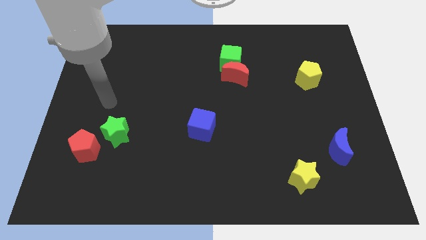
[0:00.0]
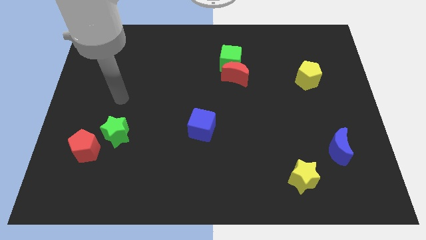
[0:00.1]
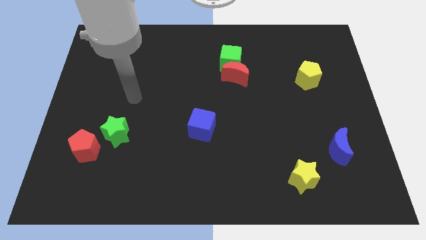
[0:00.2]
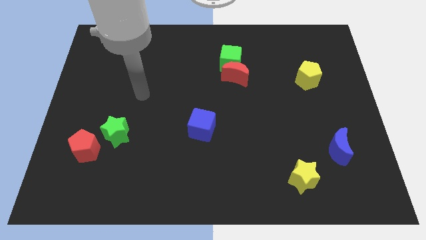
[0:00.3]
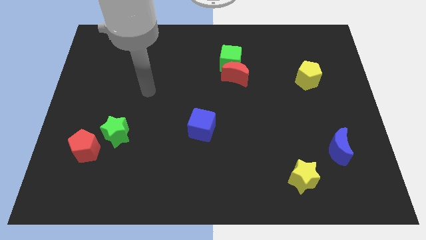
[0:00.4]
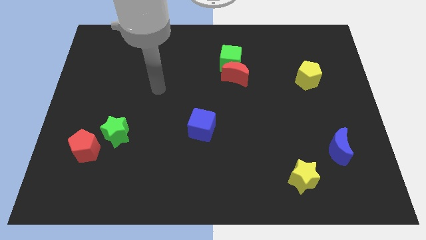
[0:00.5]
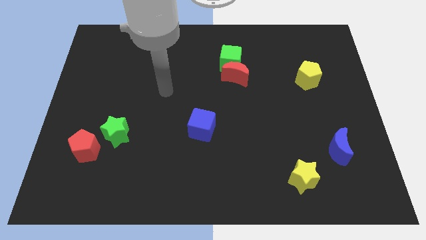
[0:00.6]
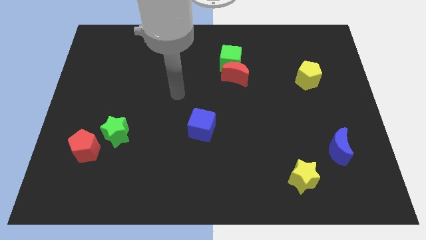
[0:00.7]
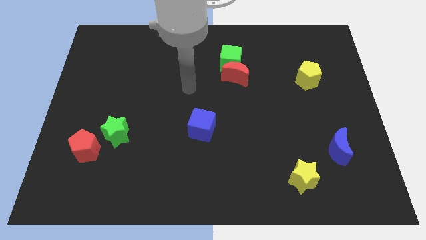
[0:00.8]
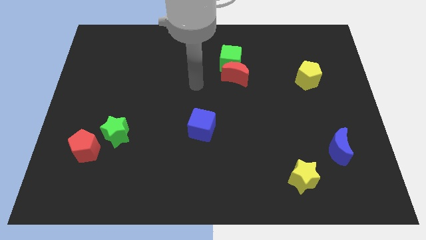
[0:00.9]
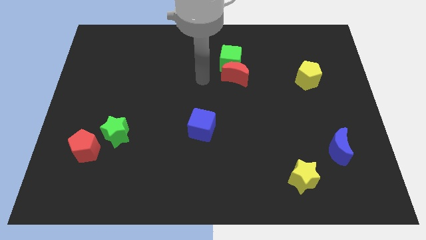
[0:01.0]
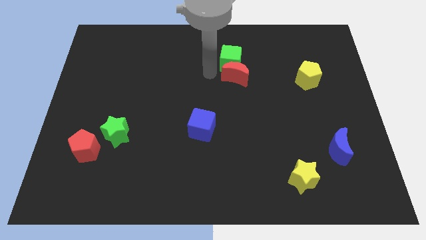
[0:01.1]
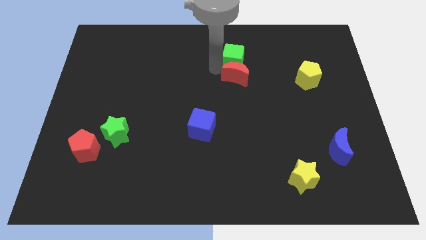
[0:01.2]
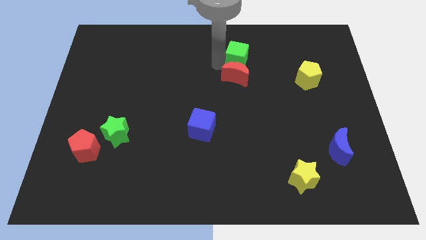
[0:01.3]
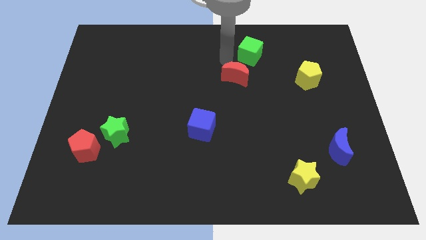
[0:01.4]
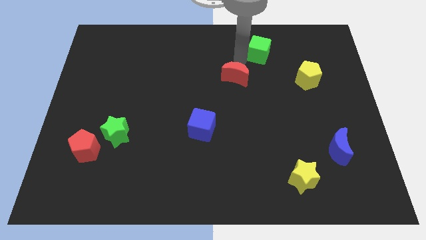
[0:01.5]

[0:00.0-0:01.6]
move the red moon away from the green cube

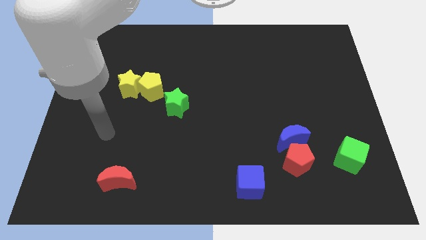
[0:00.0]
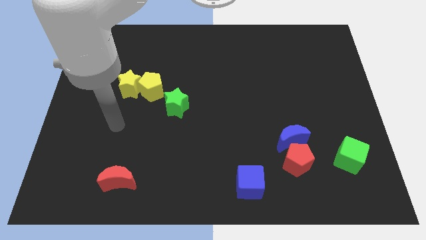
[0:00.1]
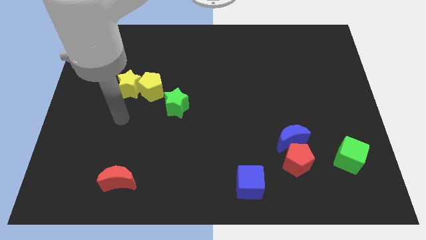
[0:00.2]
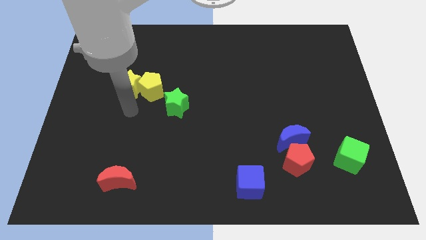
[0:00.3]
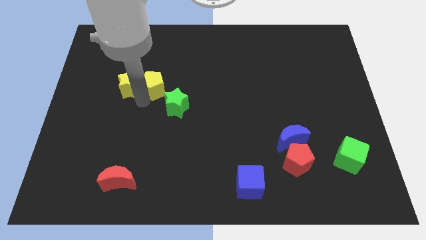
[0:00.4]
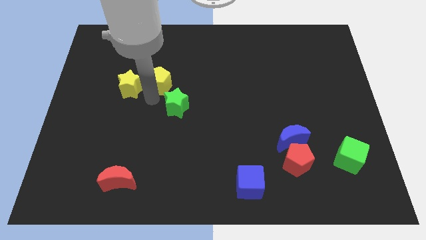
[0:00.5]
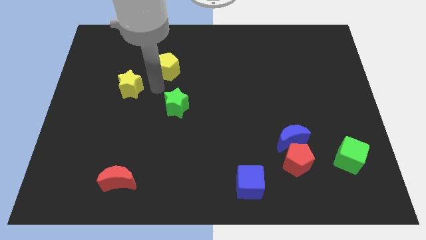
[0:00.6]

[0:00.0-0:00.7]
separate the yellow star from the yellow pentagon

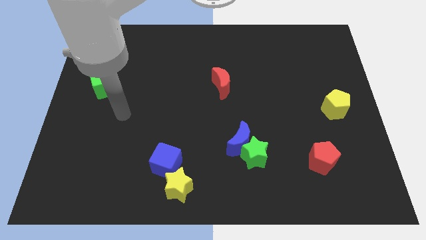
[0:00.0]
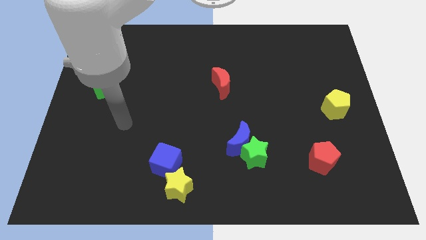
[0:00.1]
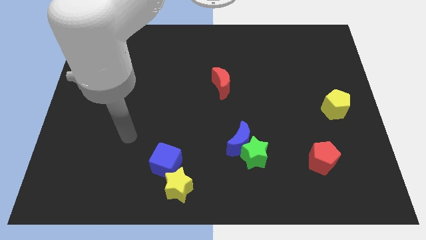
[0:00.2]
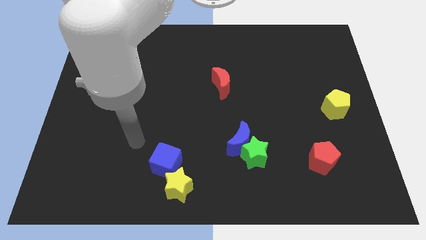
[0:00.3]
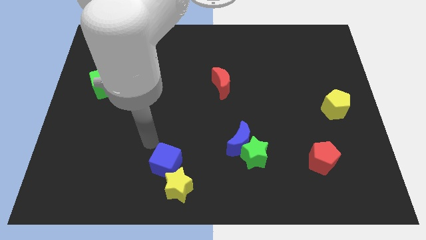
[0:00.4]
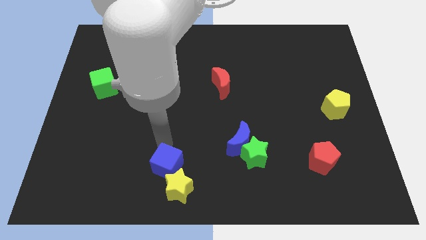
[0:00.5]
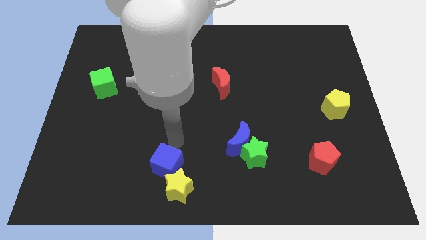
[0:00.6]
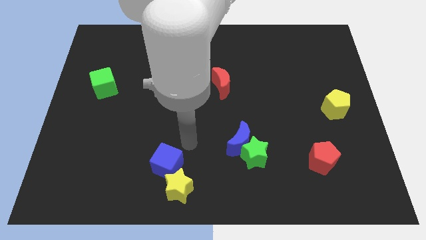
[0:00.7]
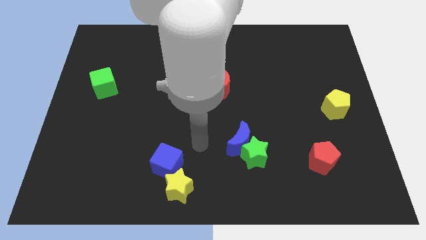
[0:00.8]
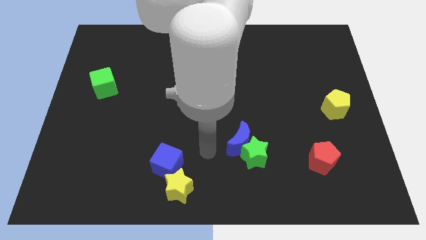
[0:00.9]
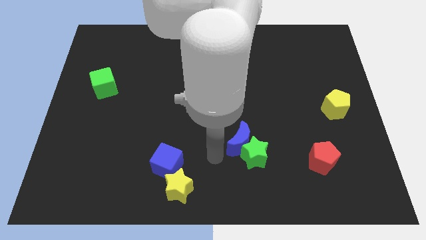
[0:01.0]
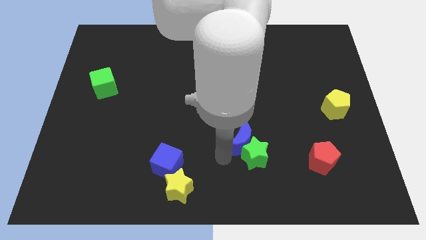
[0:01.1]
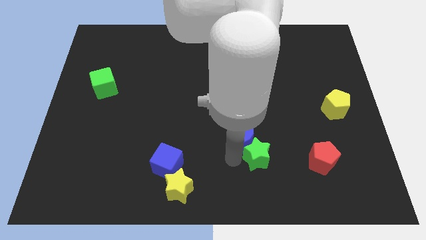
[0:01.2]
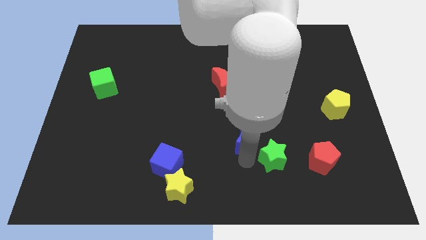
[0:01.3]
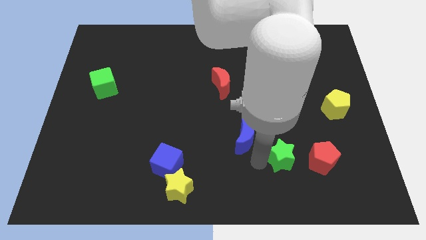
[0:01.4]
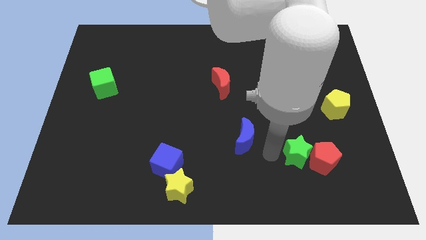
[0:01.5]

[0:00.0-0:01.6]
move the blue moon away from the green star

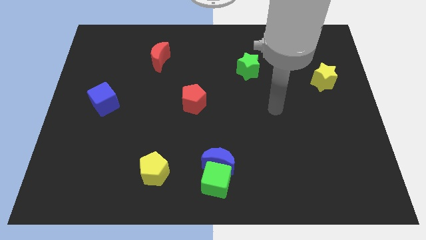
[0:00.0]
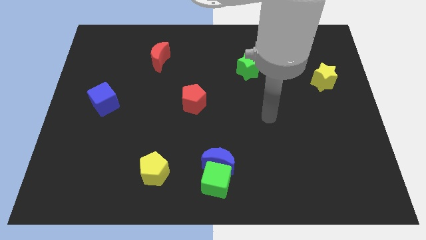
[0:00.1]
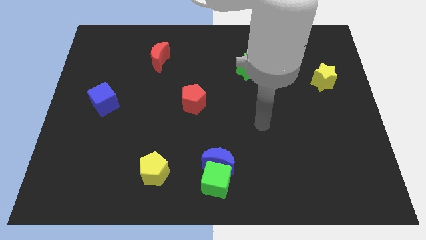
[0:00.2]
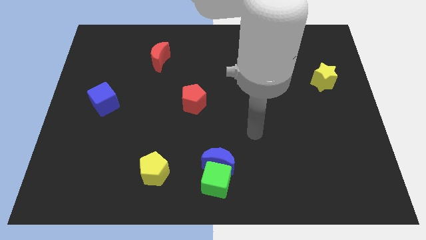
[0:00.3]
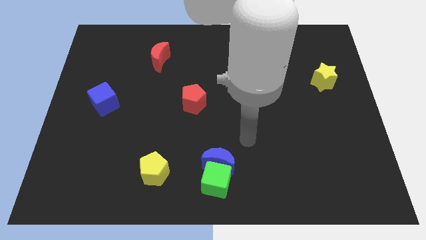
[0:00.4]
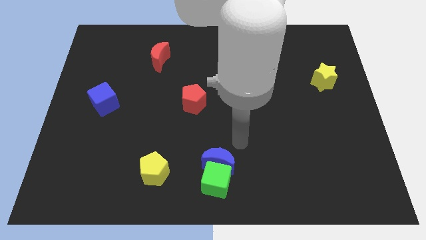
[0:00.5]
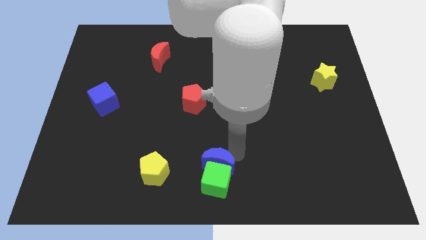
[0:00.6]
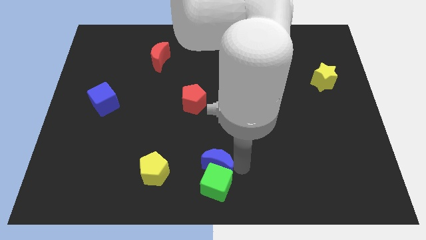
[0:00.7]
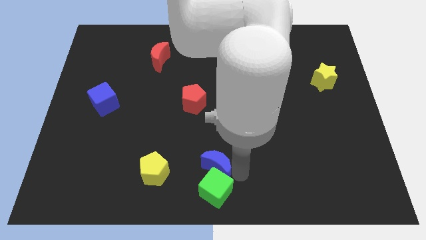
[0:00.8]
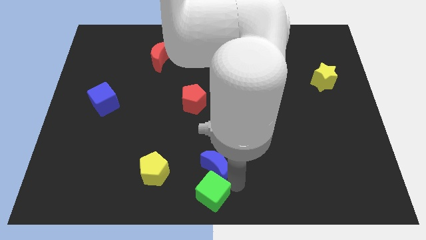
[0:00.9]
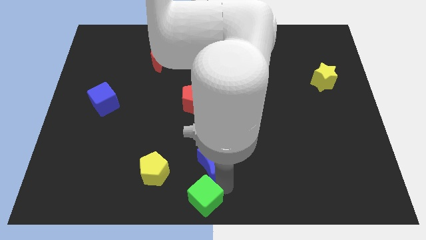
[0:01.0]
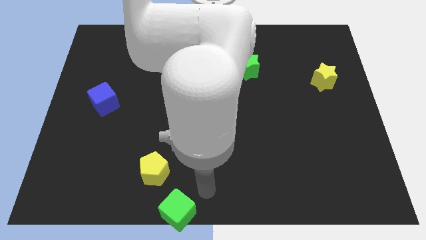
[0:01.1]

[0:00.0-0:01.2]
pull the blue moon apart from the green cube

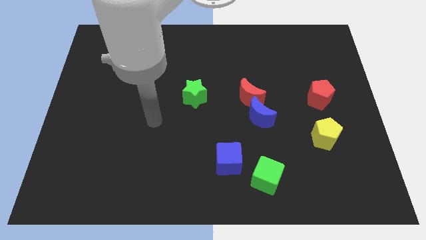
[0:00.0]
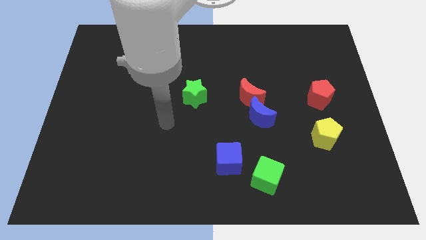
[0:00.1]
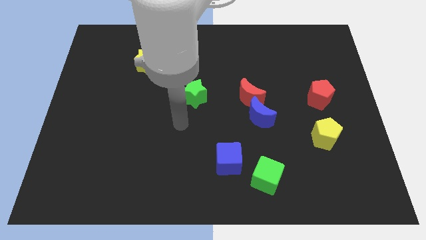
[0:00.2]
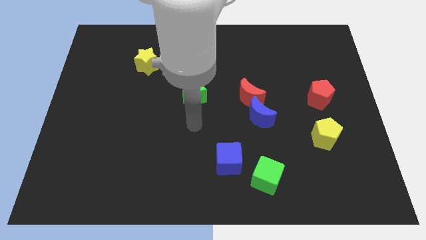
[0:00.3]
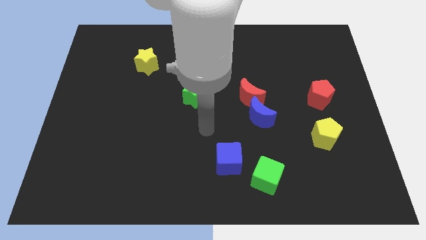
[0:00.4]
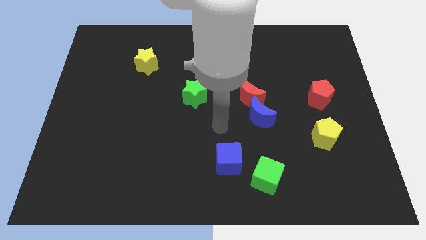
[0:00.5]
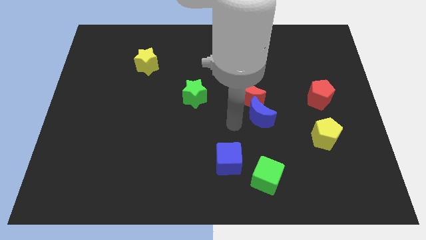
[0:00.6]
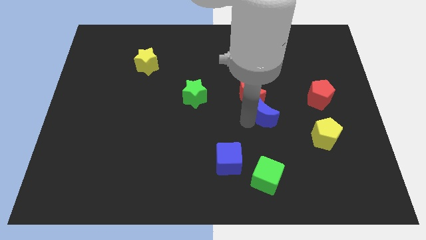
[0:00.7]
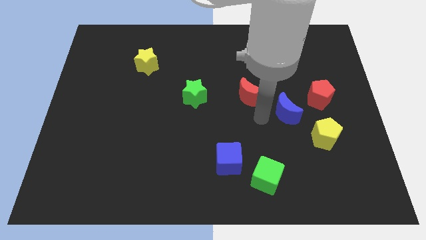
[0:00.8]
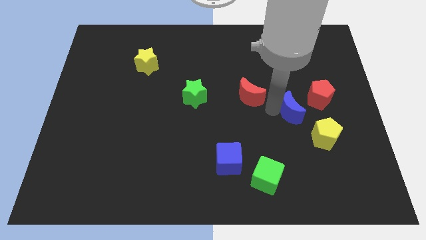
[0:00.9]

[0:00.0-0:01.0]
move the red moon away from the blue moon

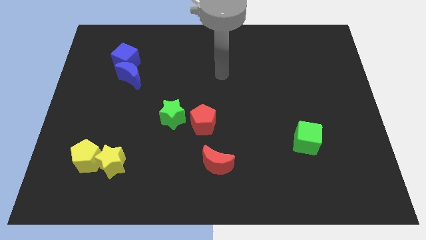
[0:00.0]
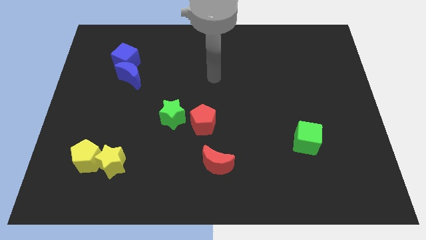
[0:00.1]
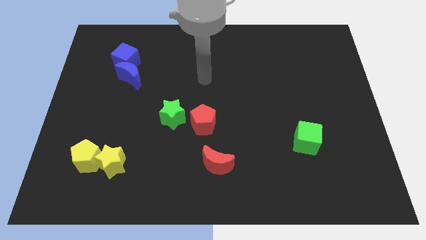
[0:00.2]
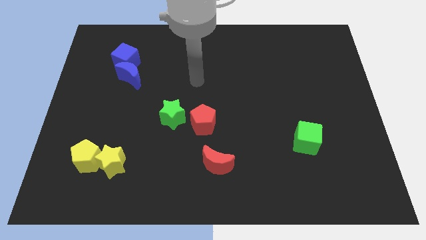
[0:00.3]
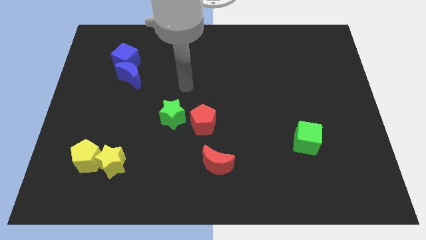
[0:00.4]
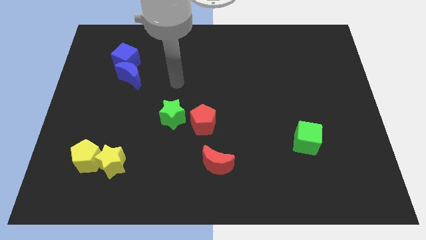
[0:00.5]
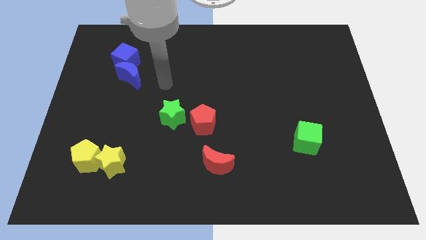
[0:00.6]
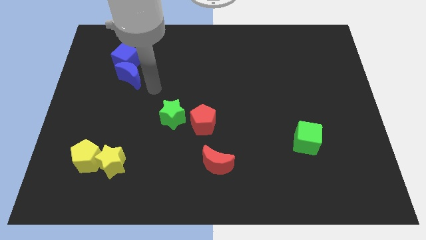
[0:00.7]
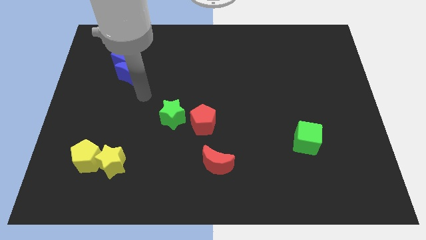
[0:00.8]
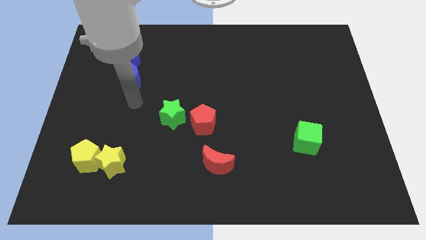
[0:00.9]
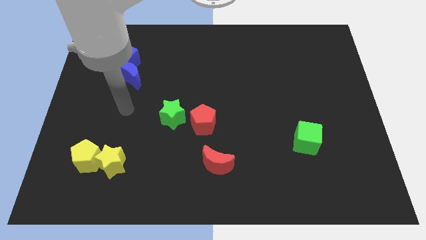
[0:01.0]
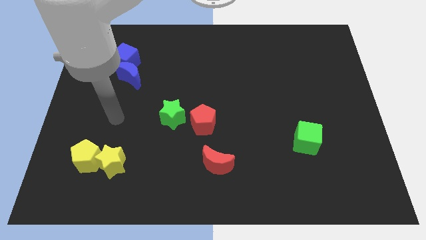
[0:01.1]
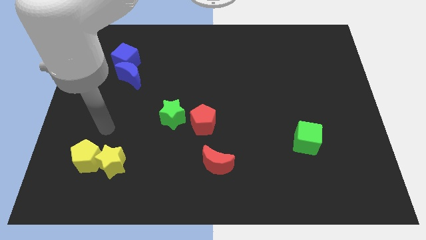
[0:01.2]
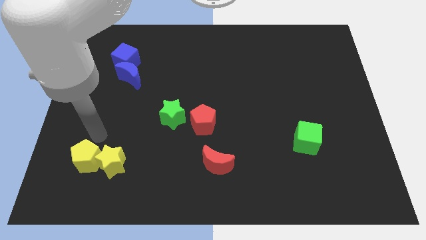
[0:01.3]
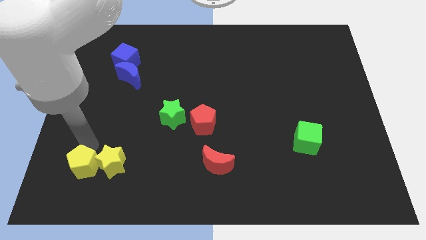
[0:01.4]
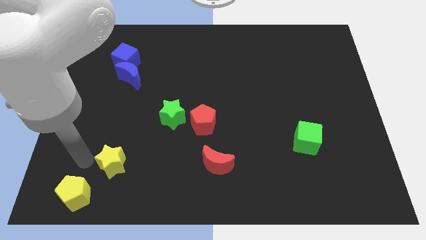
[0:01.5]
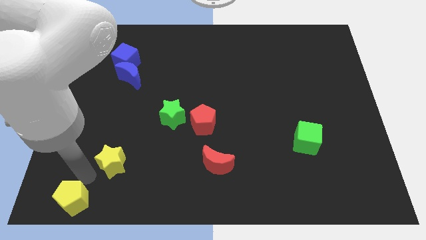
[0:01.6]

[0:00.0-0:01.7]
move the yellow star away from the yellow pentagon

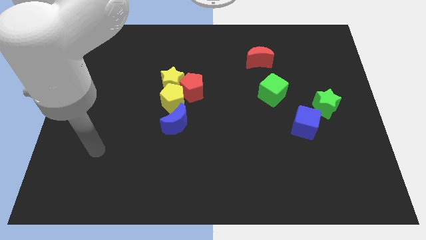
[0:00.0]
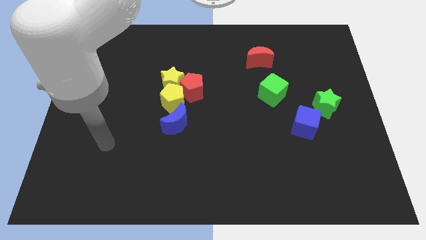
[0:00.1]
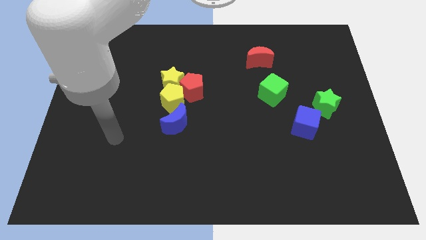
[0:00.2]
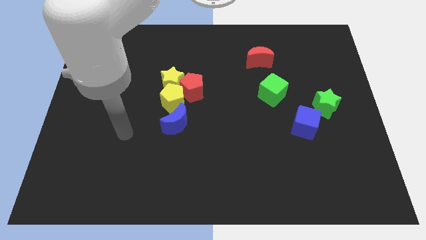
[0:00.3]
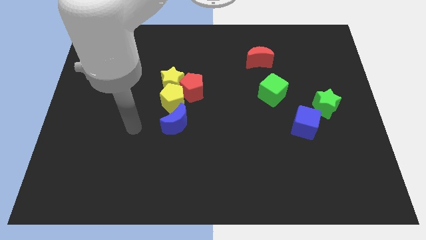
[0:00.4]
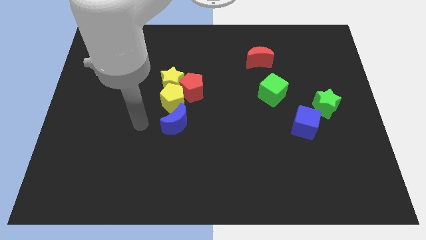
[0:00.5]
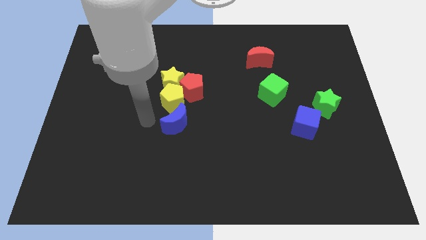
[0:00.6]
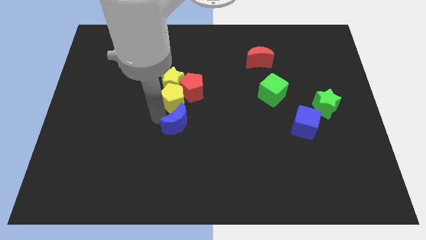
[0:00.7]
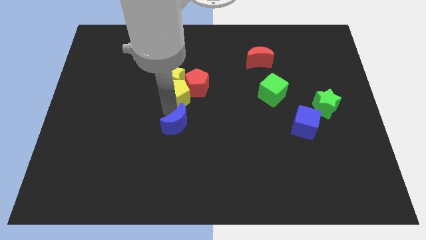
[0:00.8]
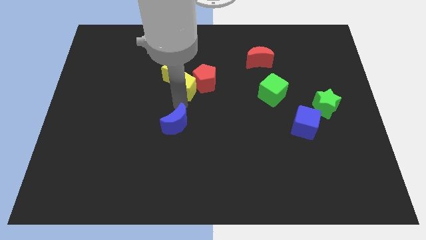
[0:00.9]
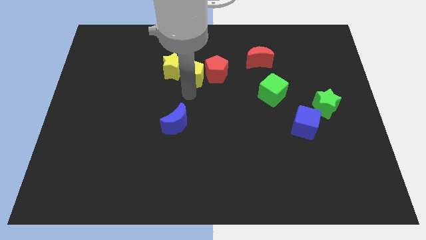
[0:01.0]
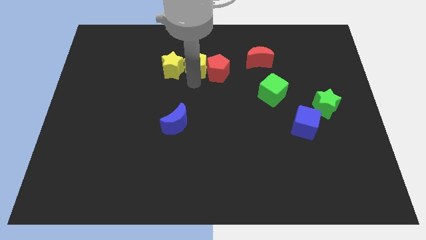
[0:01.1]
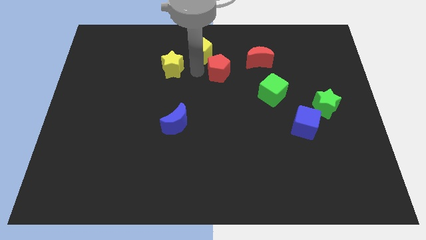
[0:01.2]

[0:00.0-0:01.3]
pull the yellow star apart from the red pentagon and yellow pentagon
